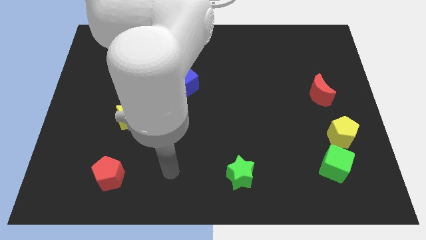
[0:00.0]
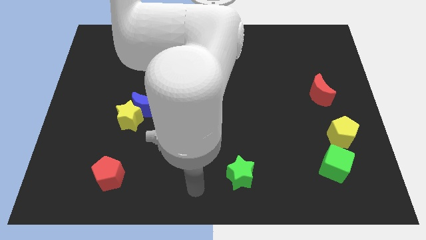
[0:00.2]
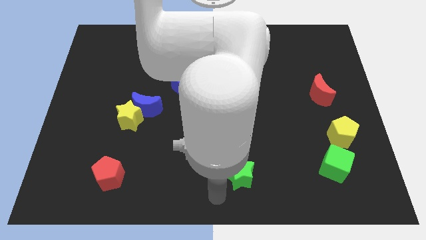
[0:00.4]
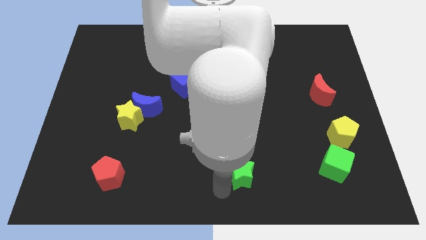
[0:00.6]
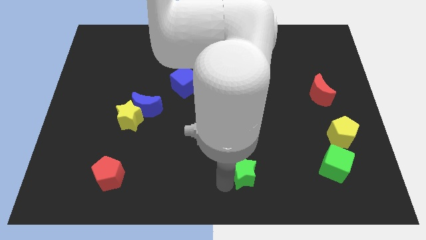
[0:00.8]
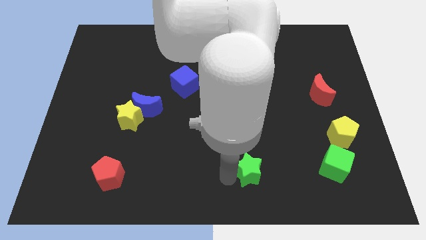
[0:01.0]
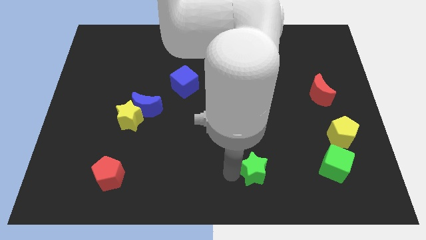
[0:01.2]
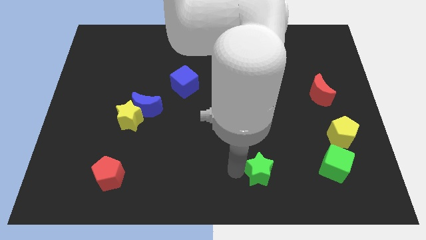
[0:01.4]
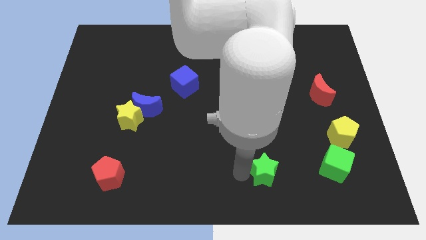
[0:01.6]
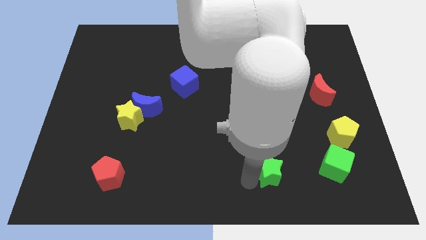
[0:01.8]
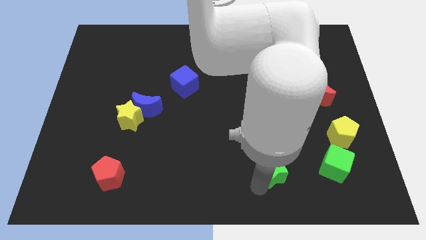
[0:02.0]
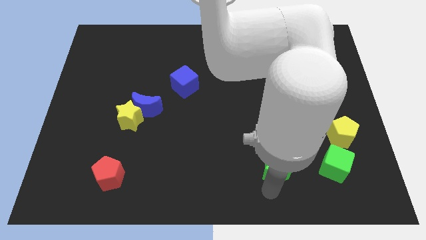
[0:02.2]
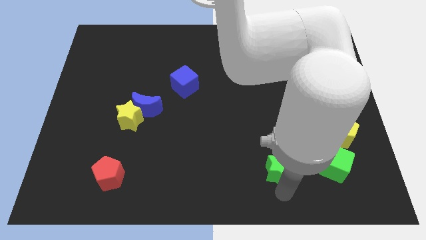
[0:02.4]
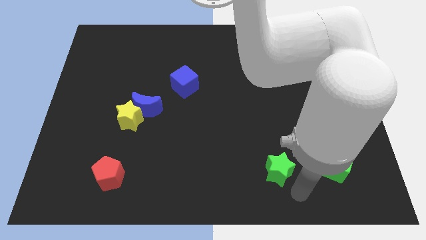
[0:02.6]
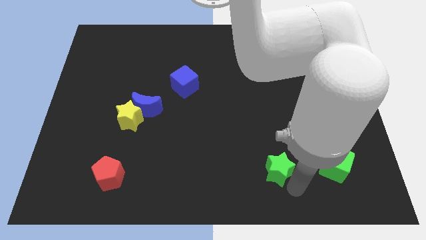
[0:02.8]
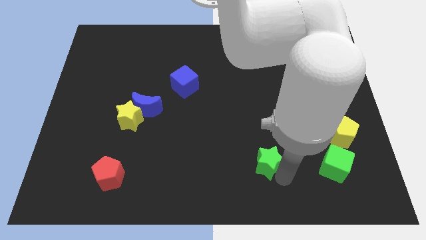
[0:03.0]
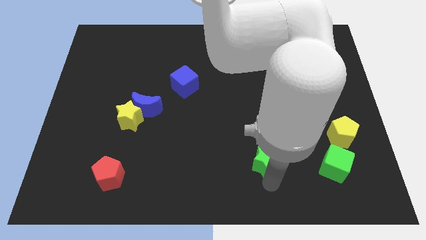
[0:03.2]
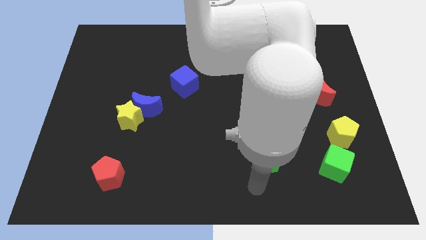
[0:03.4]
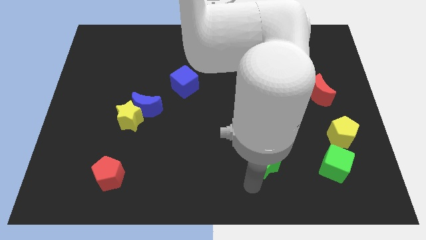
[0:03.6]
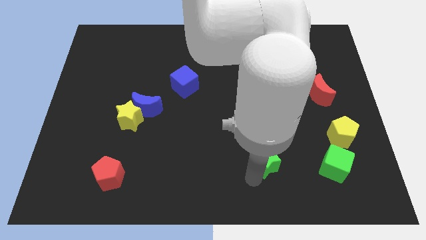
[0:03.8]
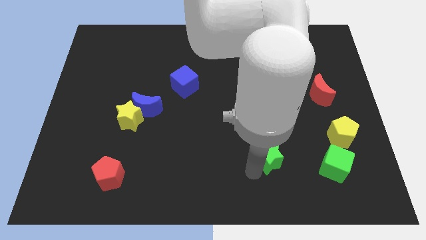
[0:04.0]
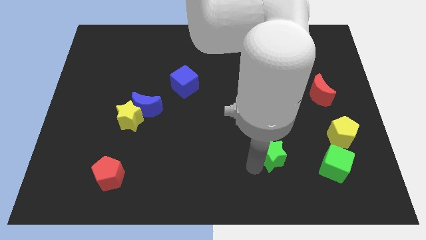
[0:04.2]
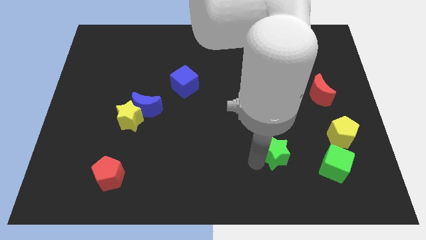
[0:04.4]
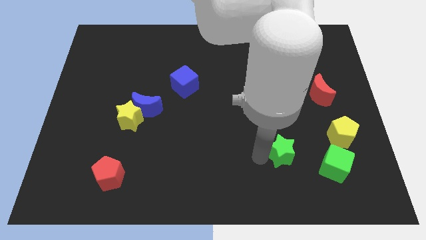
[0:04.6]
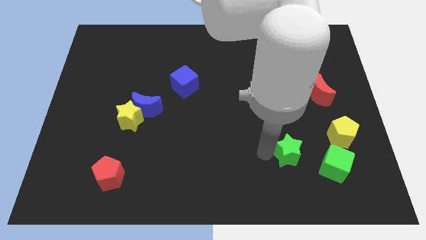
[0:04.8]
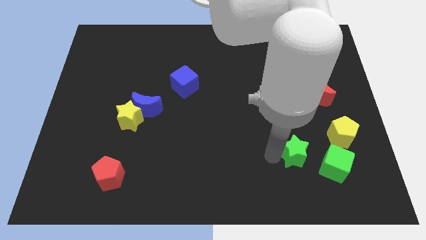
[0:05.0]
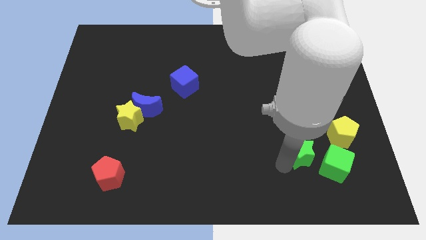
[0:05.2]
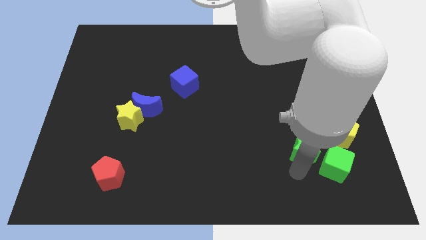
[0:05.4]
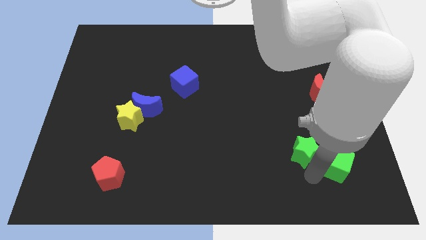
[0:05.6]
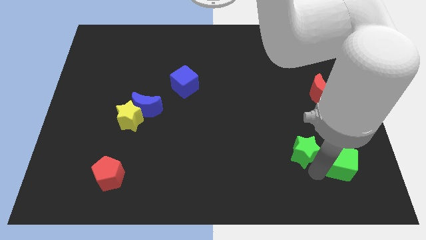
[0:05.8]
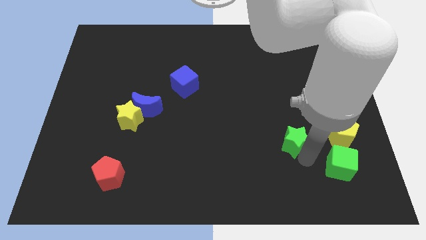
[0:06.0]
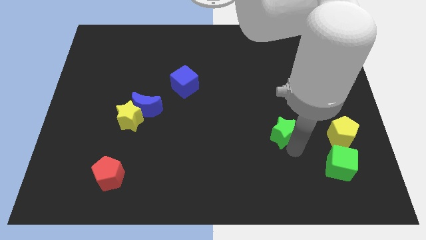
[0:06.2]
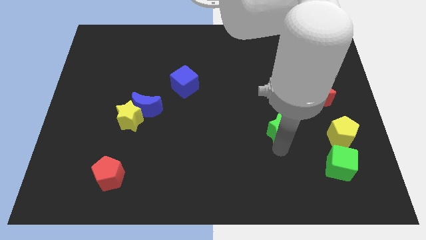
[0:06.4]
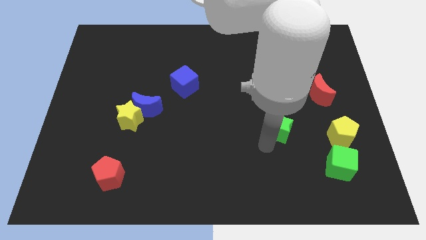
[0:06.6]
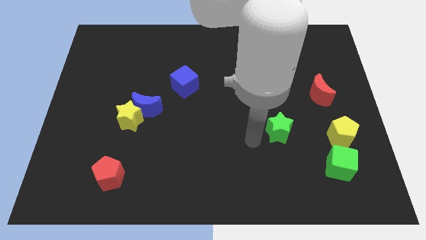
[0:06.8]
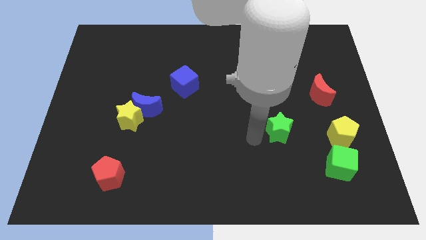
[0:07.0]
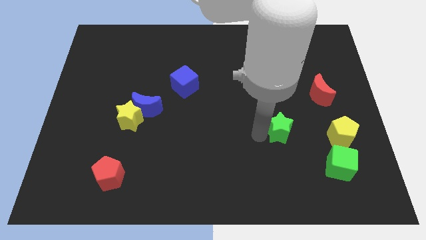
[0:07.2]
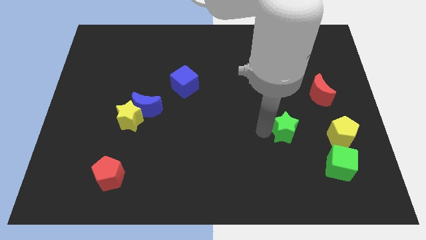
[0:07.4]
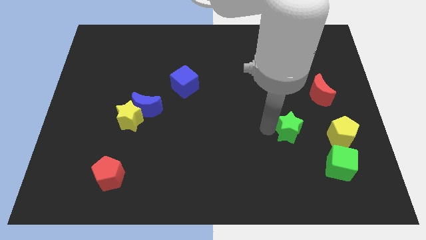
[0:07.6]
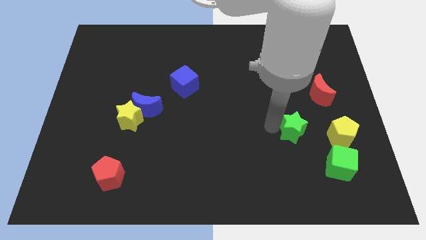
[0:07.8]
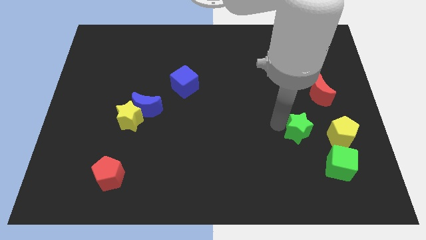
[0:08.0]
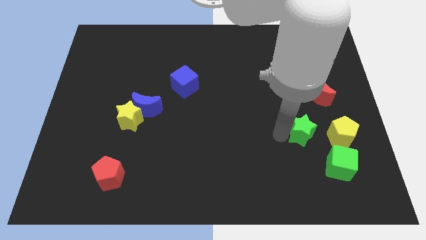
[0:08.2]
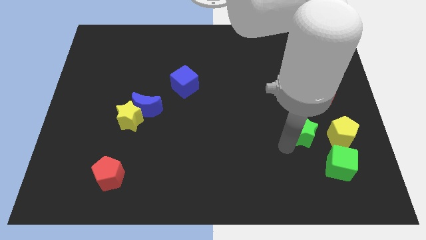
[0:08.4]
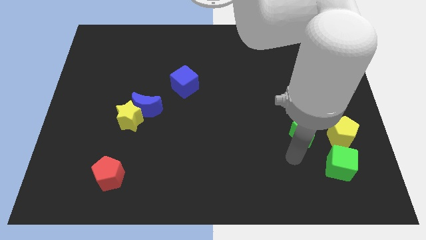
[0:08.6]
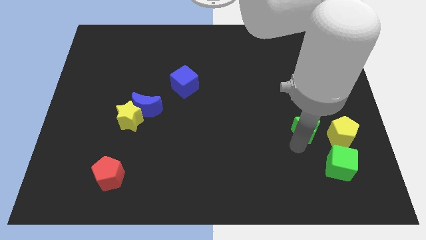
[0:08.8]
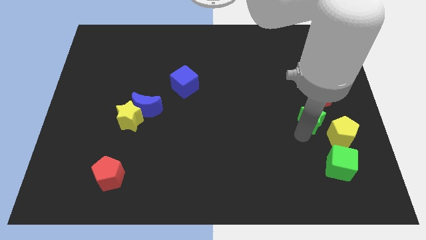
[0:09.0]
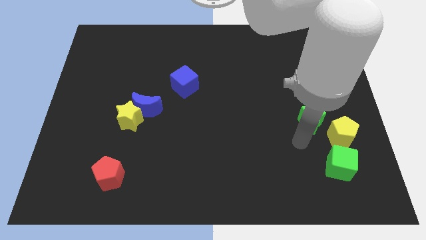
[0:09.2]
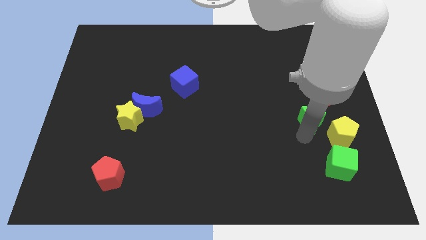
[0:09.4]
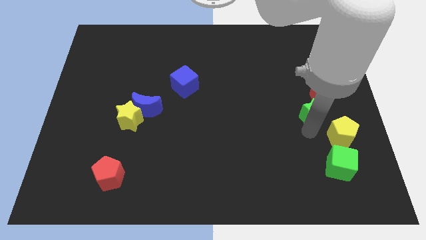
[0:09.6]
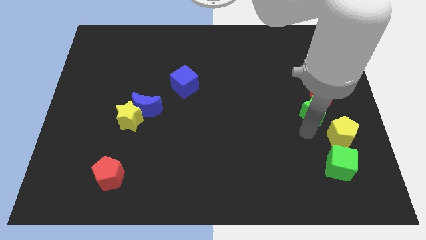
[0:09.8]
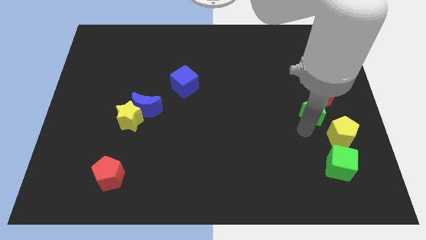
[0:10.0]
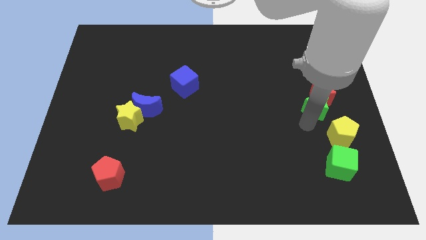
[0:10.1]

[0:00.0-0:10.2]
slide the green star to the red moon

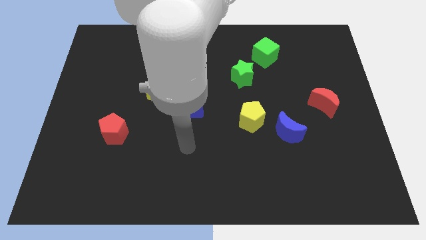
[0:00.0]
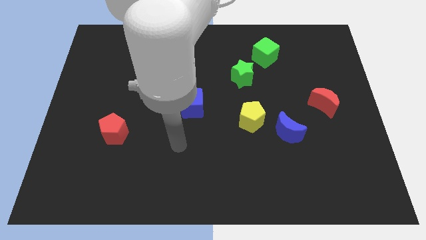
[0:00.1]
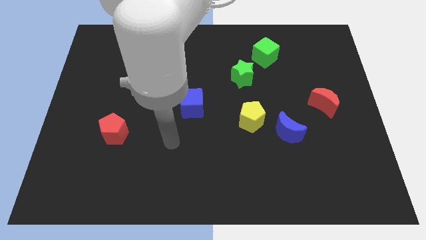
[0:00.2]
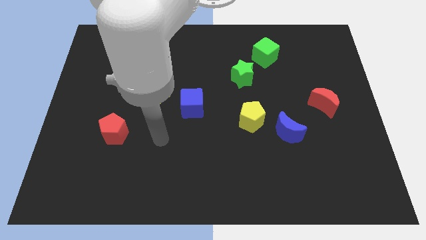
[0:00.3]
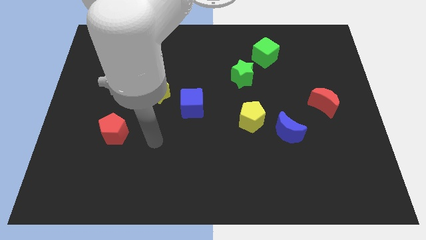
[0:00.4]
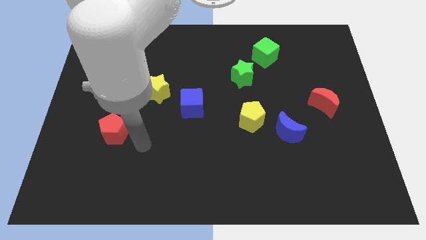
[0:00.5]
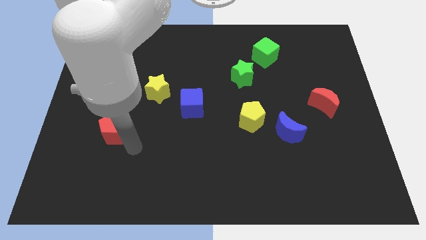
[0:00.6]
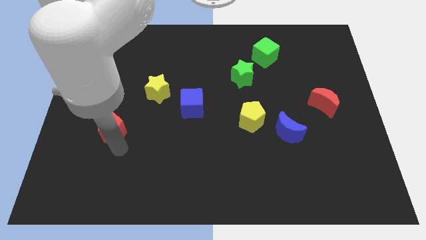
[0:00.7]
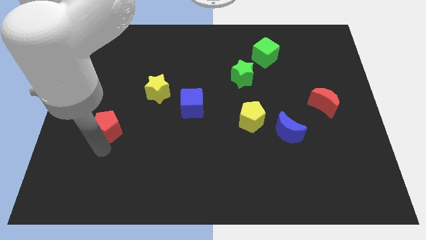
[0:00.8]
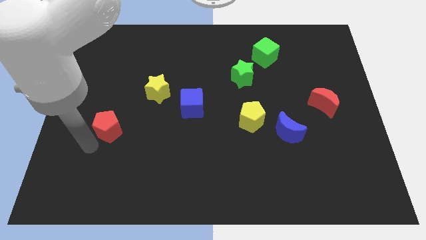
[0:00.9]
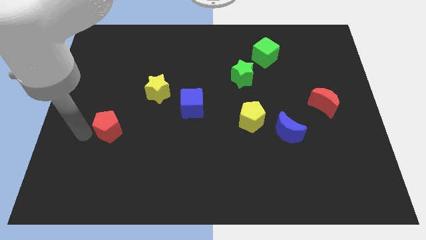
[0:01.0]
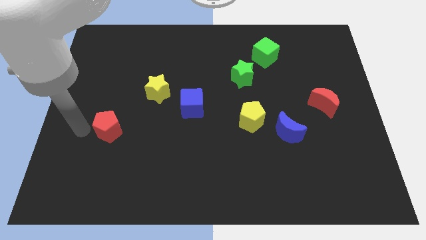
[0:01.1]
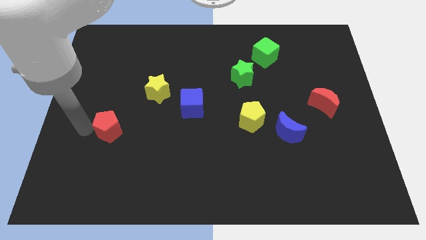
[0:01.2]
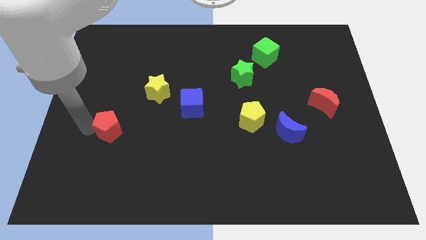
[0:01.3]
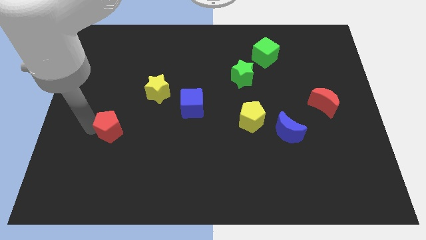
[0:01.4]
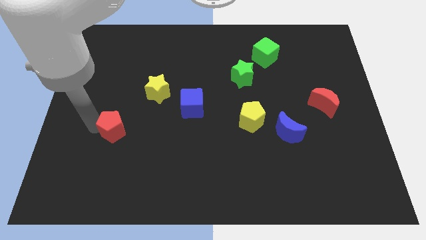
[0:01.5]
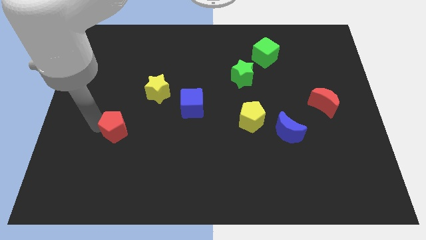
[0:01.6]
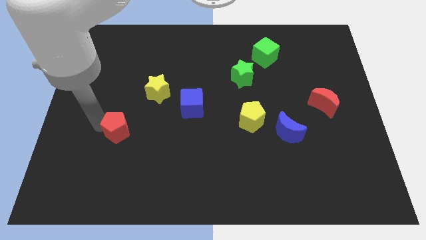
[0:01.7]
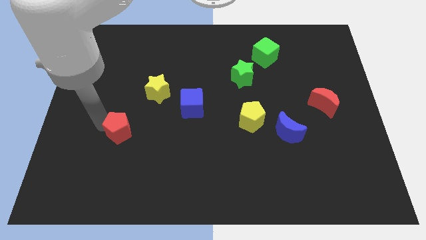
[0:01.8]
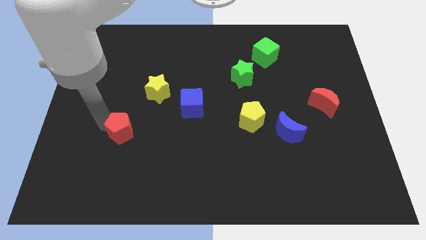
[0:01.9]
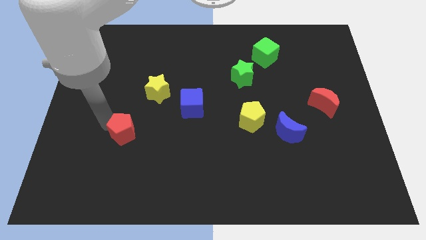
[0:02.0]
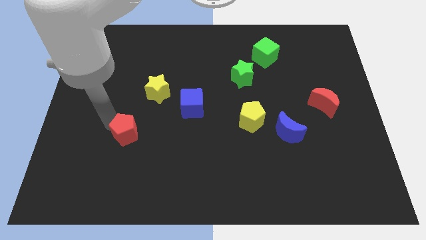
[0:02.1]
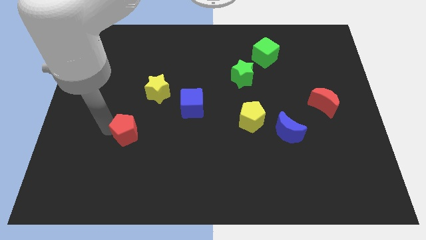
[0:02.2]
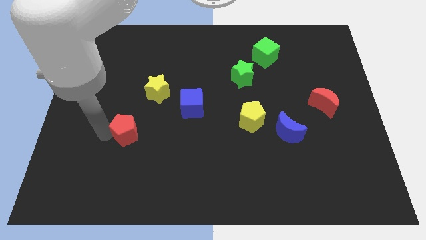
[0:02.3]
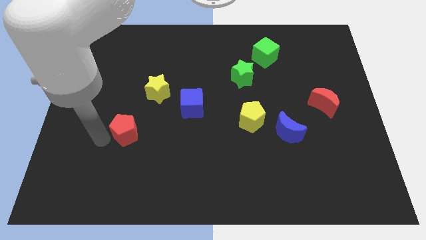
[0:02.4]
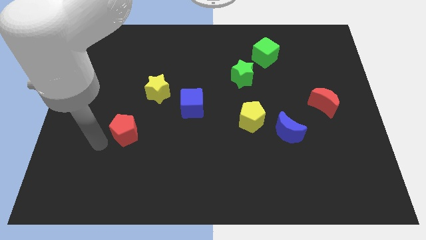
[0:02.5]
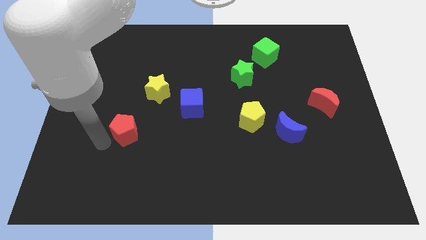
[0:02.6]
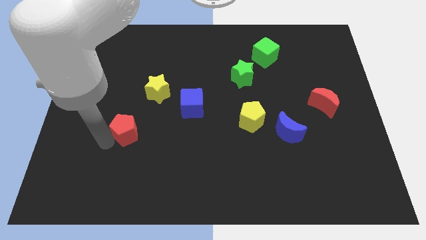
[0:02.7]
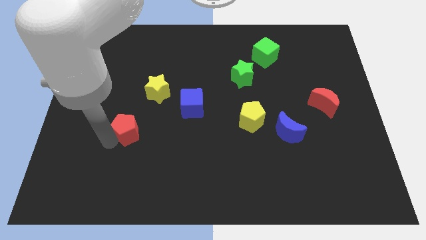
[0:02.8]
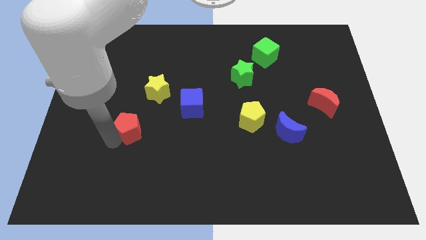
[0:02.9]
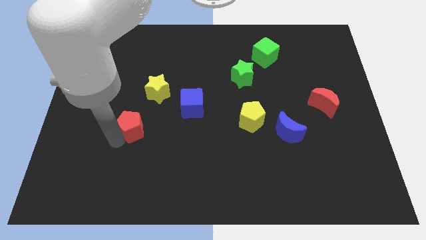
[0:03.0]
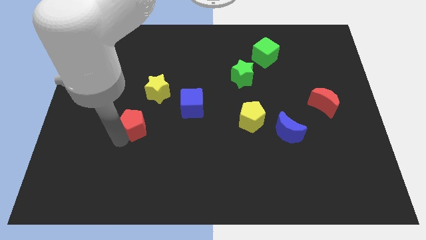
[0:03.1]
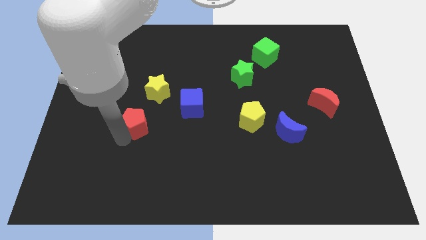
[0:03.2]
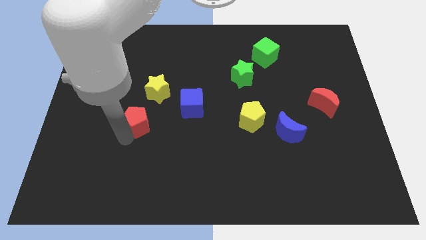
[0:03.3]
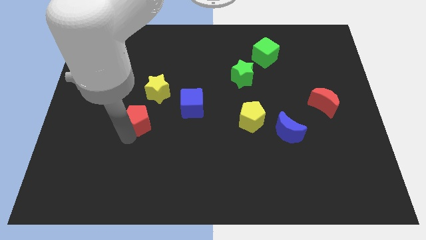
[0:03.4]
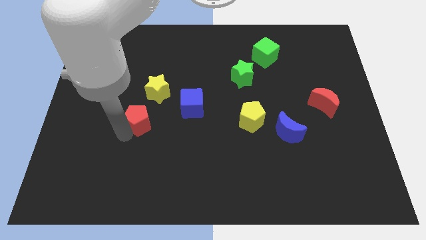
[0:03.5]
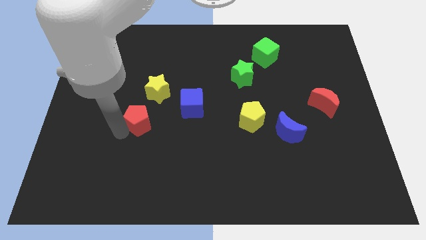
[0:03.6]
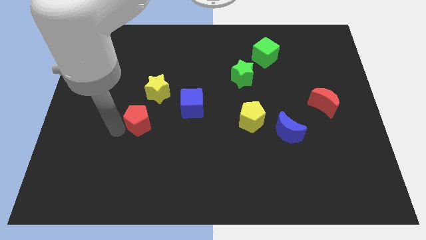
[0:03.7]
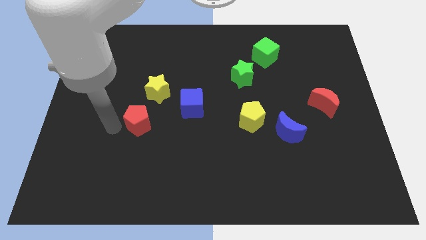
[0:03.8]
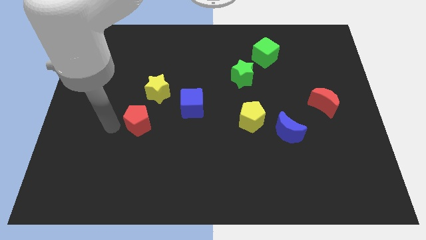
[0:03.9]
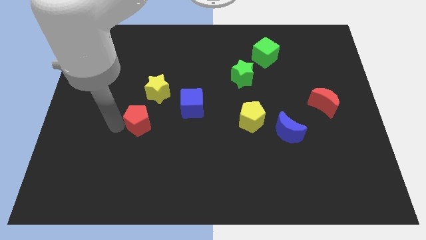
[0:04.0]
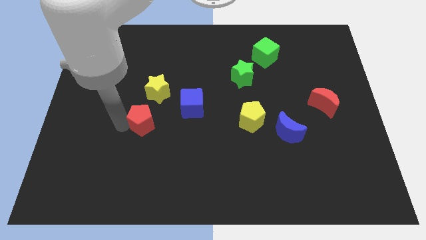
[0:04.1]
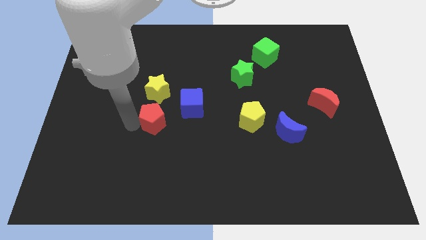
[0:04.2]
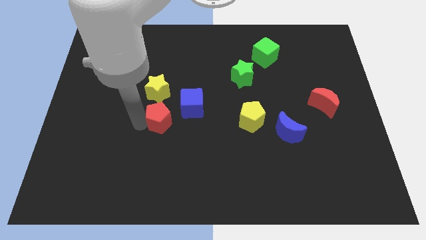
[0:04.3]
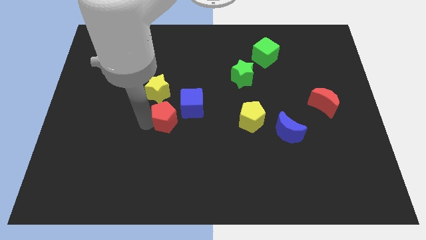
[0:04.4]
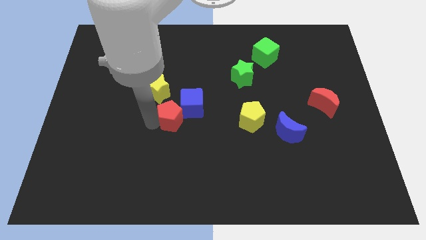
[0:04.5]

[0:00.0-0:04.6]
slide the red pentagon next to the blue cube
